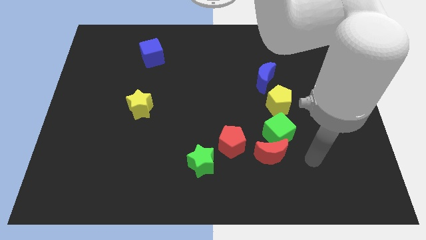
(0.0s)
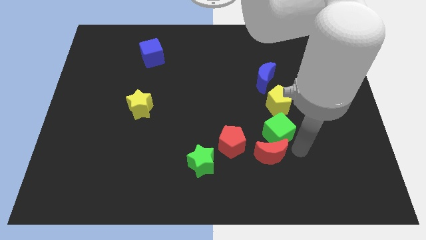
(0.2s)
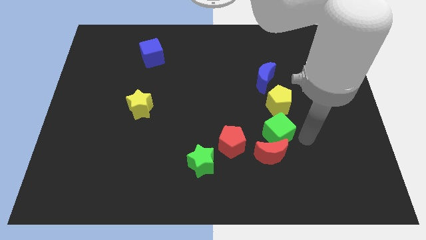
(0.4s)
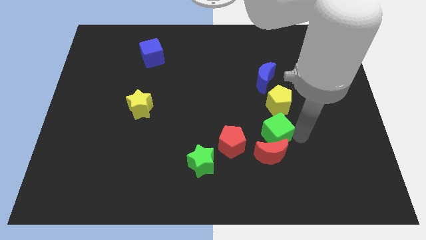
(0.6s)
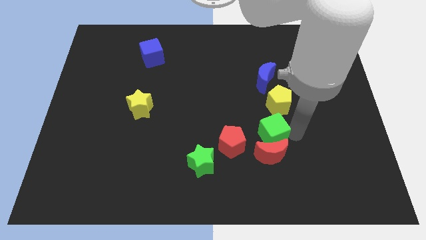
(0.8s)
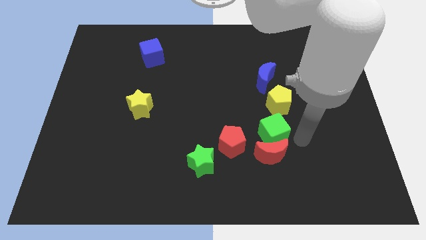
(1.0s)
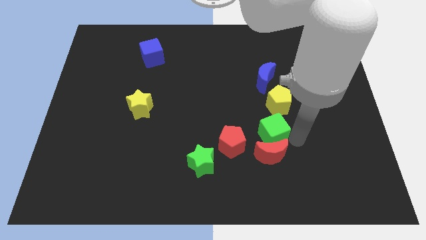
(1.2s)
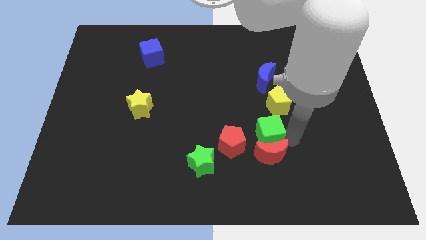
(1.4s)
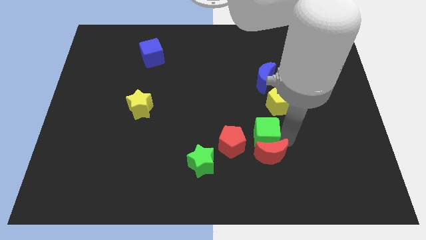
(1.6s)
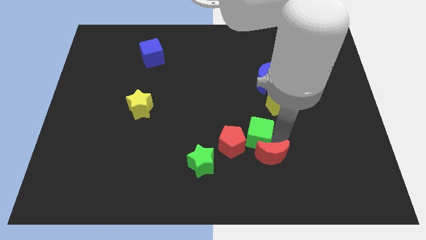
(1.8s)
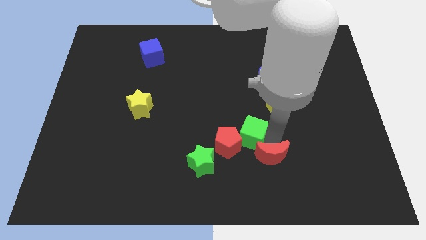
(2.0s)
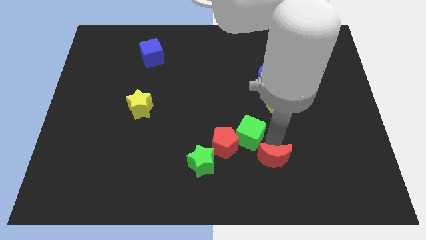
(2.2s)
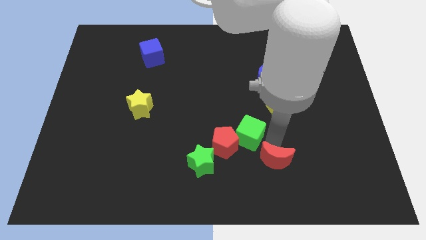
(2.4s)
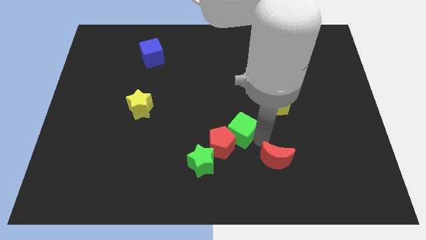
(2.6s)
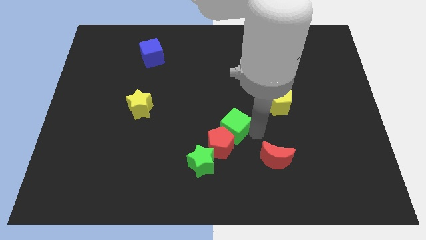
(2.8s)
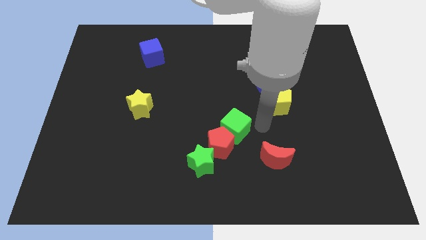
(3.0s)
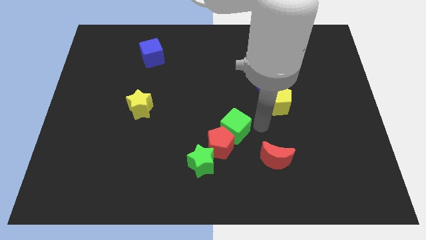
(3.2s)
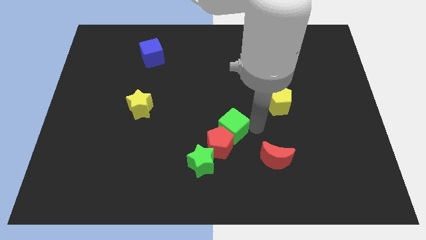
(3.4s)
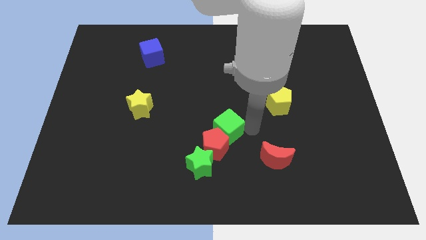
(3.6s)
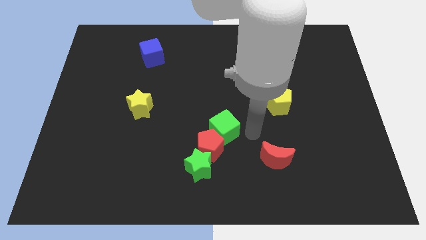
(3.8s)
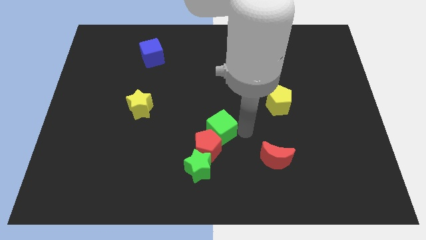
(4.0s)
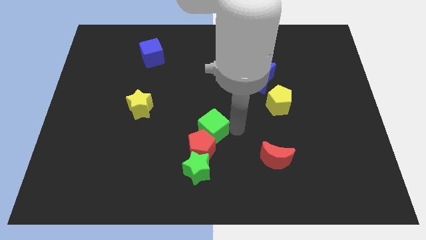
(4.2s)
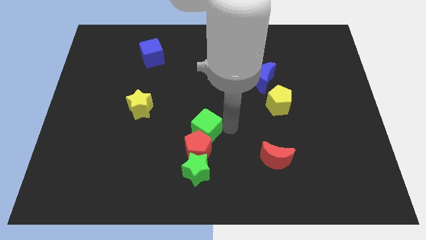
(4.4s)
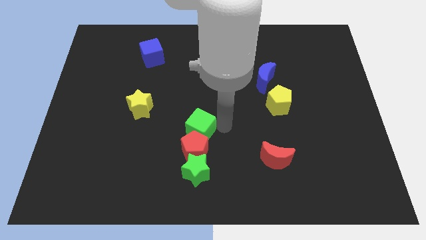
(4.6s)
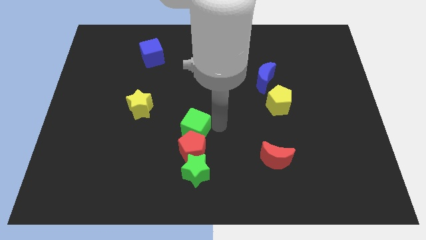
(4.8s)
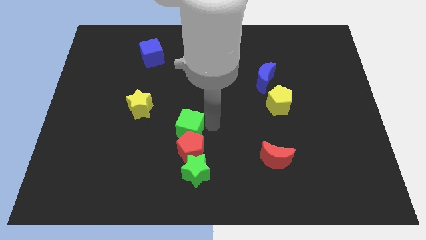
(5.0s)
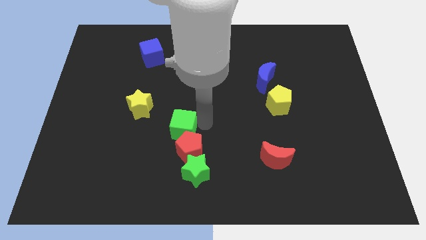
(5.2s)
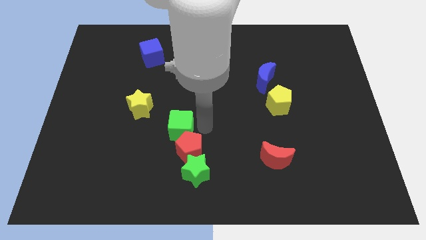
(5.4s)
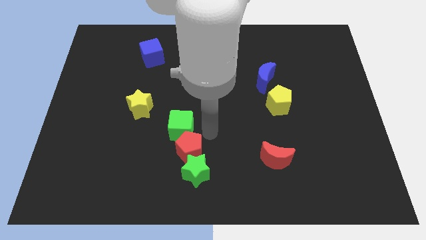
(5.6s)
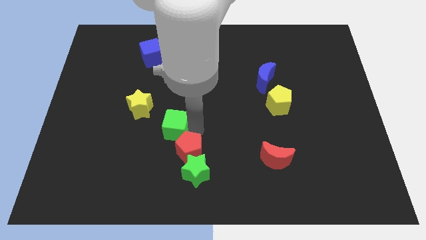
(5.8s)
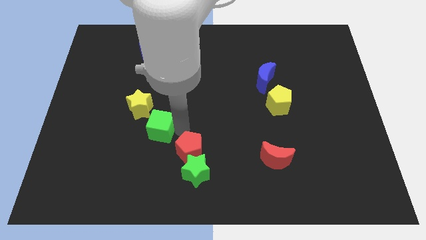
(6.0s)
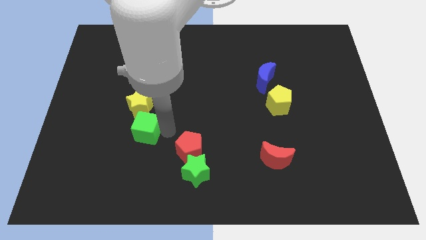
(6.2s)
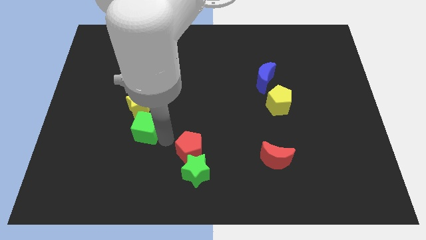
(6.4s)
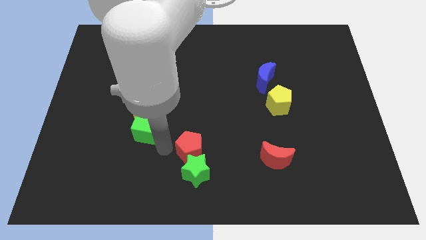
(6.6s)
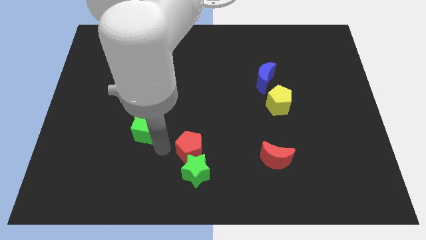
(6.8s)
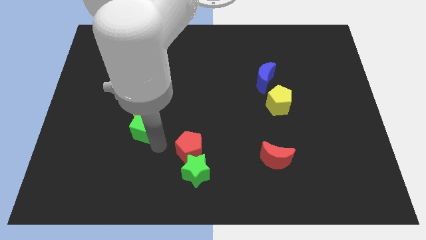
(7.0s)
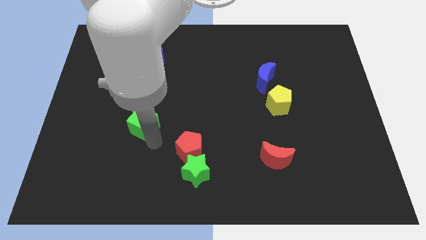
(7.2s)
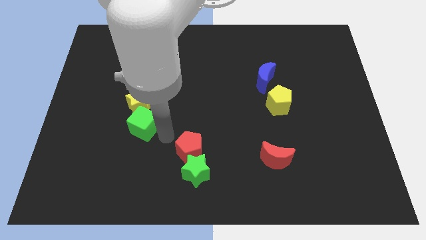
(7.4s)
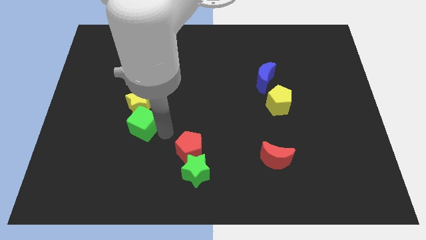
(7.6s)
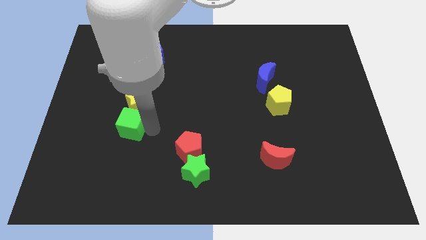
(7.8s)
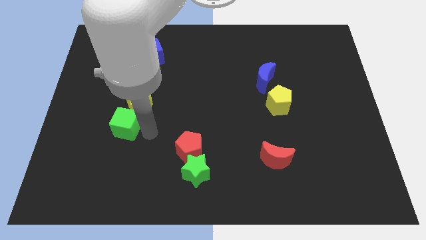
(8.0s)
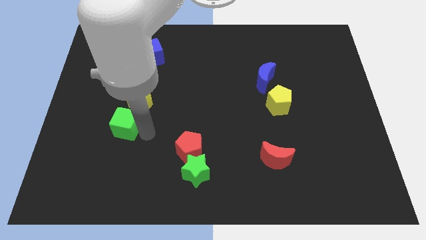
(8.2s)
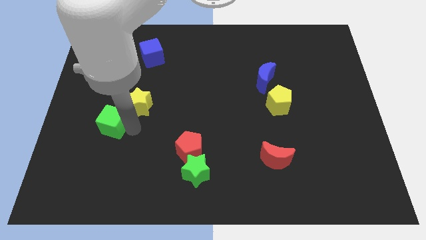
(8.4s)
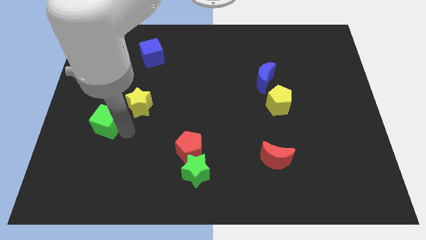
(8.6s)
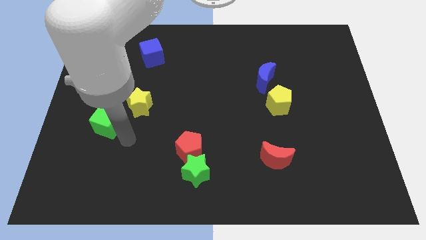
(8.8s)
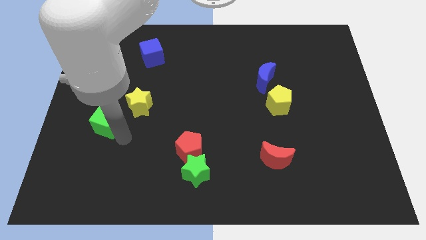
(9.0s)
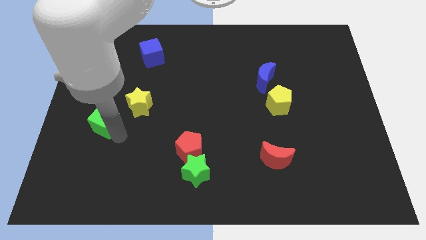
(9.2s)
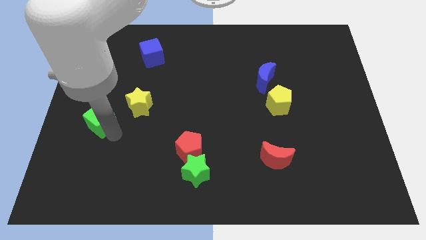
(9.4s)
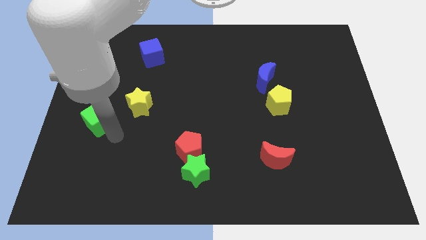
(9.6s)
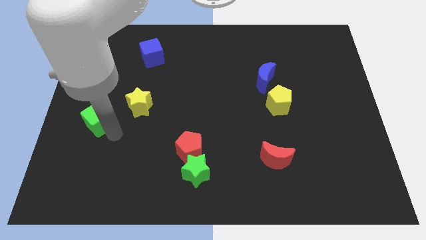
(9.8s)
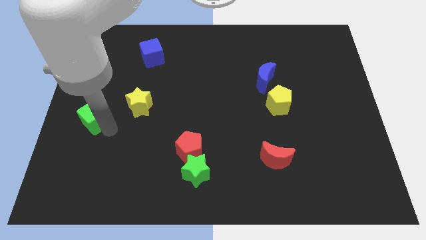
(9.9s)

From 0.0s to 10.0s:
move the green cube to the left side

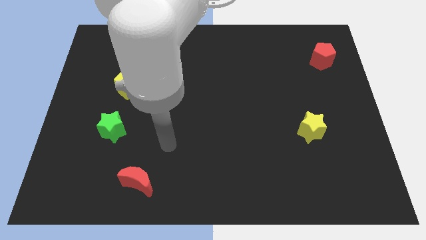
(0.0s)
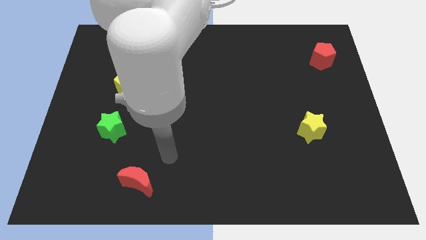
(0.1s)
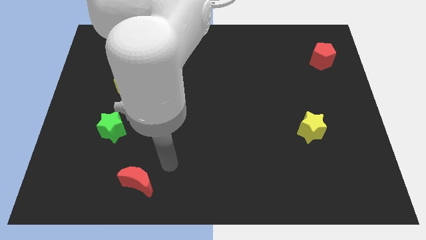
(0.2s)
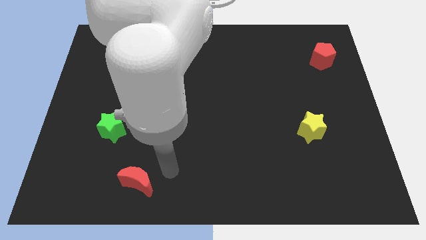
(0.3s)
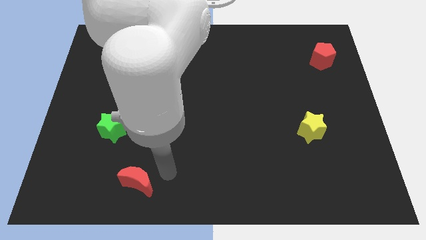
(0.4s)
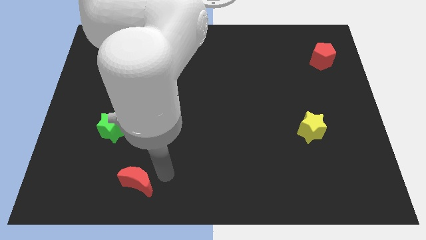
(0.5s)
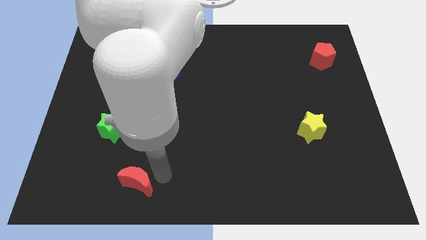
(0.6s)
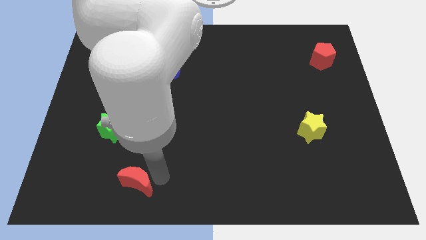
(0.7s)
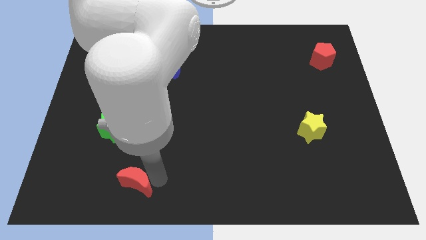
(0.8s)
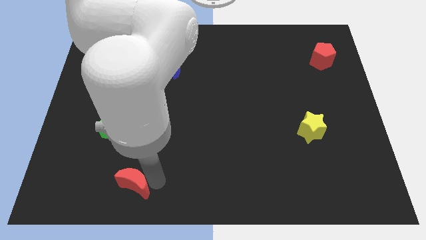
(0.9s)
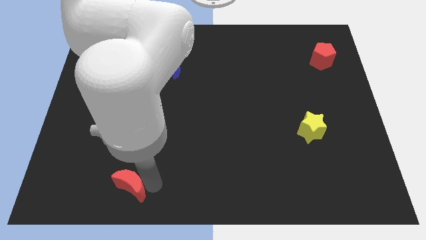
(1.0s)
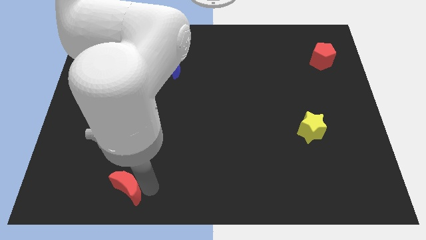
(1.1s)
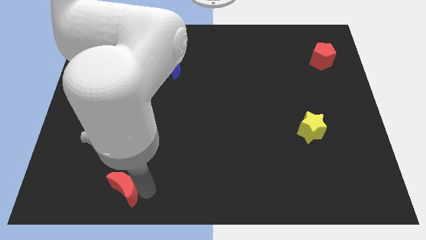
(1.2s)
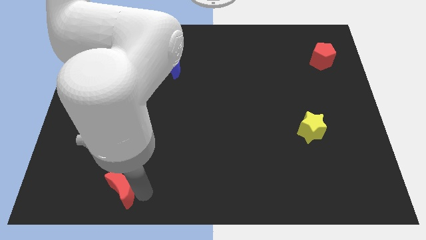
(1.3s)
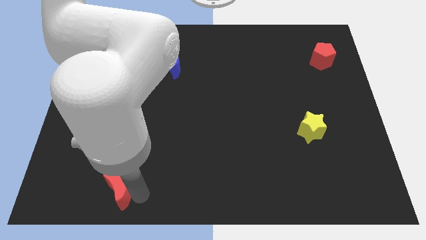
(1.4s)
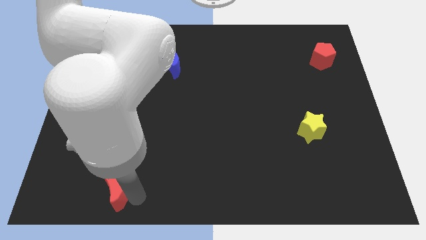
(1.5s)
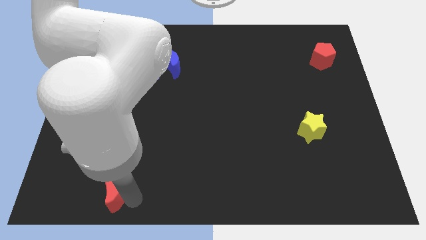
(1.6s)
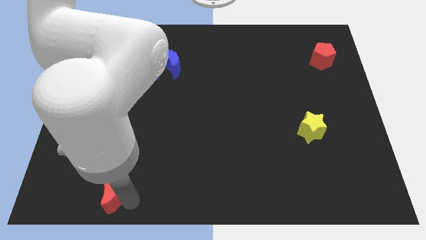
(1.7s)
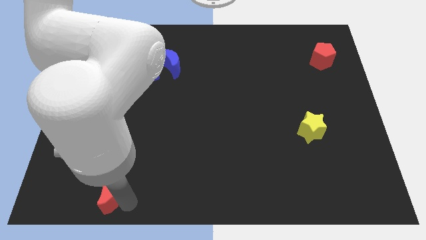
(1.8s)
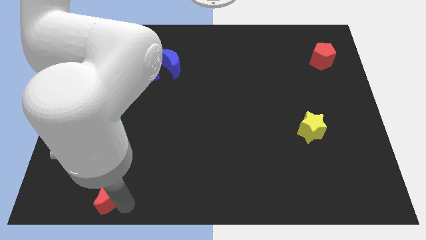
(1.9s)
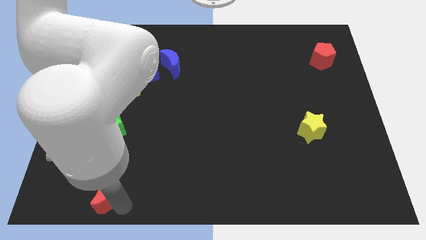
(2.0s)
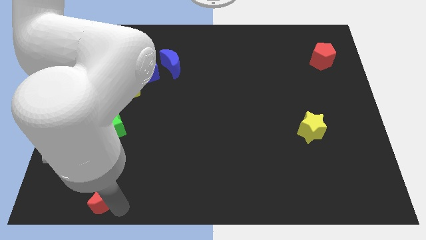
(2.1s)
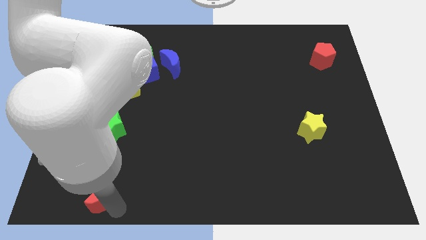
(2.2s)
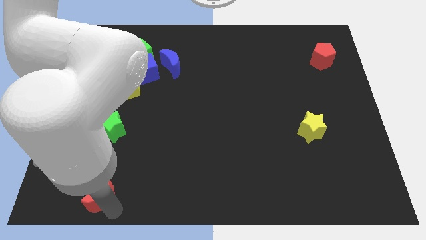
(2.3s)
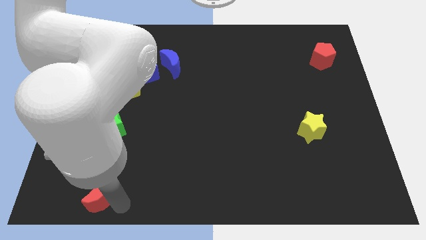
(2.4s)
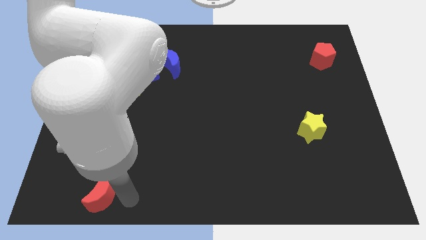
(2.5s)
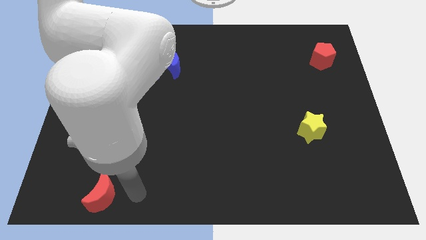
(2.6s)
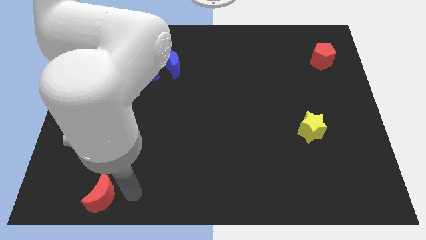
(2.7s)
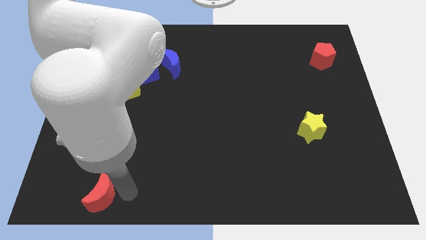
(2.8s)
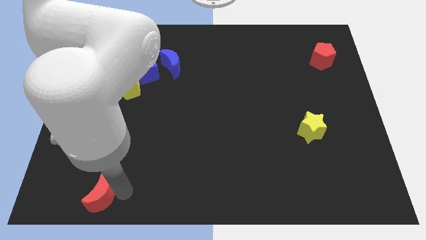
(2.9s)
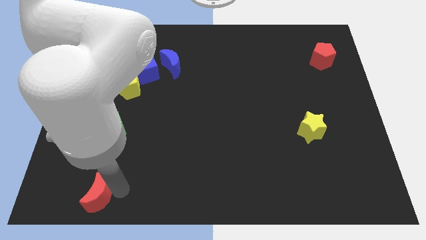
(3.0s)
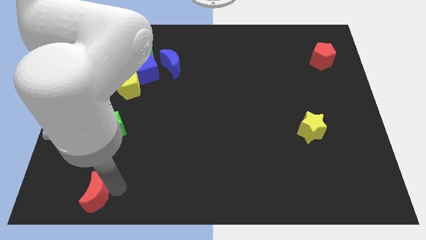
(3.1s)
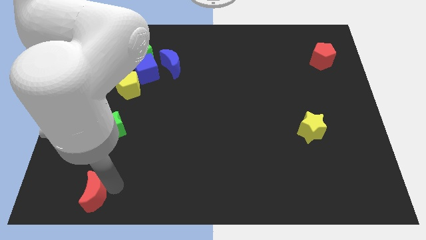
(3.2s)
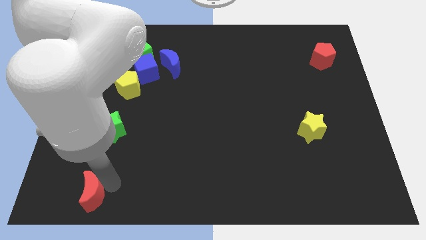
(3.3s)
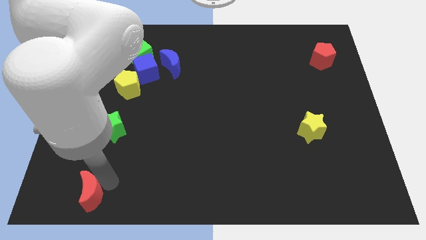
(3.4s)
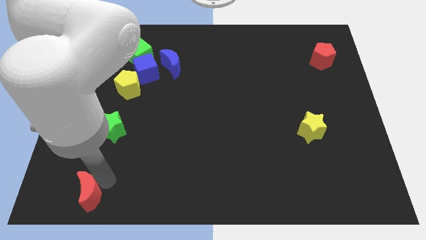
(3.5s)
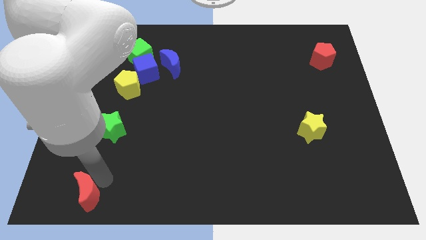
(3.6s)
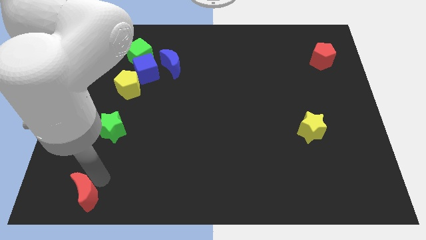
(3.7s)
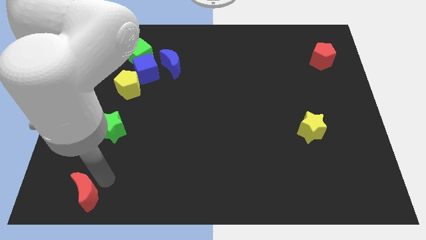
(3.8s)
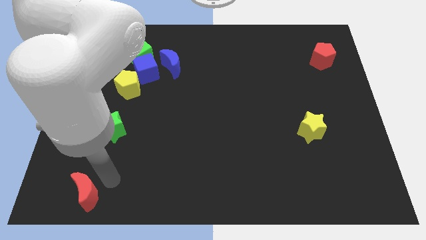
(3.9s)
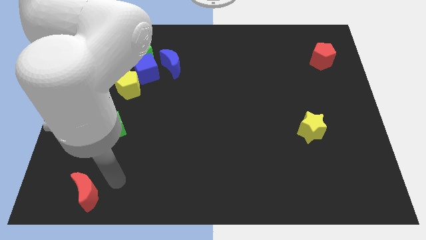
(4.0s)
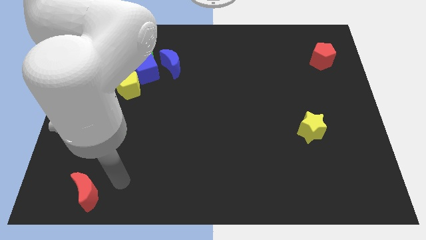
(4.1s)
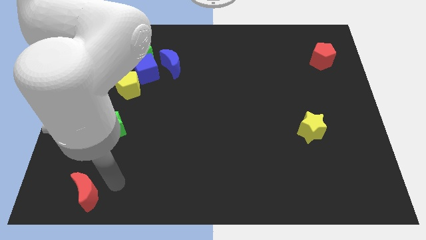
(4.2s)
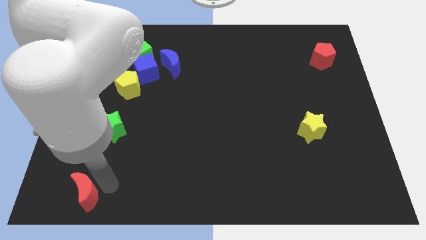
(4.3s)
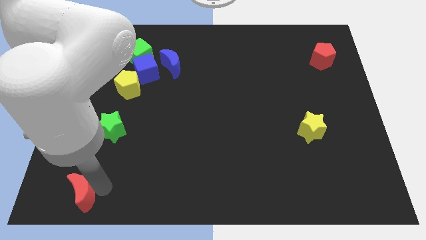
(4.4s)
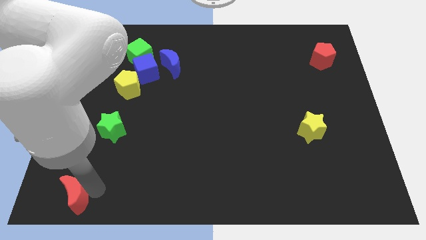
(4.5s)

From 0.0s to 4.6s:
put the red moon to the bottom left of the board
